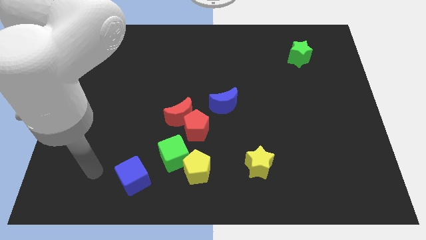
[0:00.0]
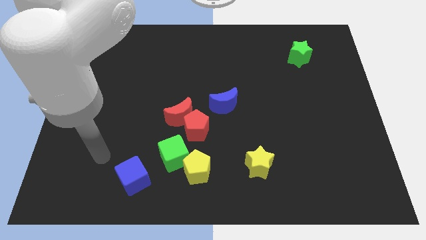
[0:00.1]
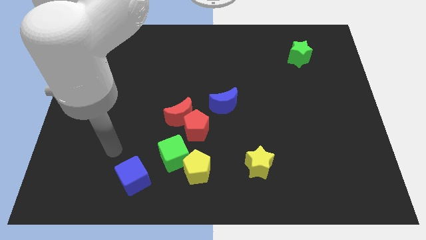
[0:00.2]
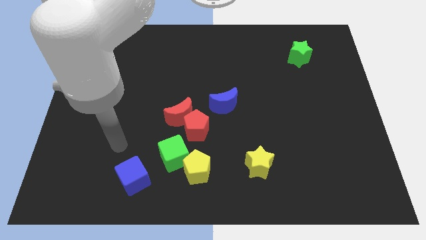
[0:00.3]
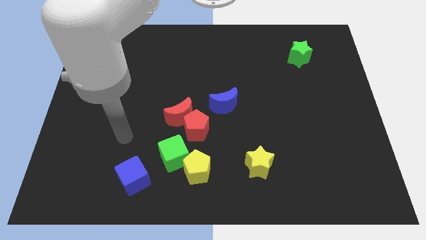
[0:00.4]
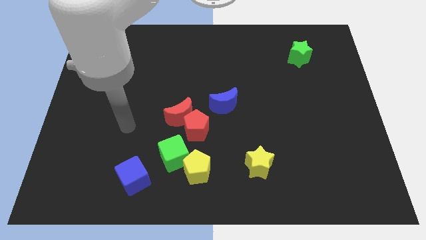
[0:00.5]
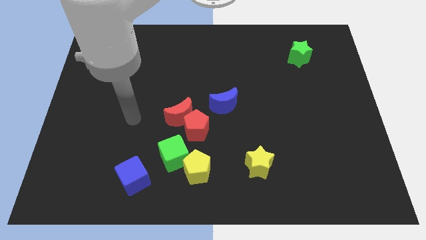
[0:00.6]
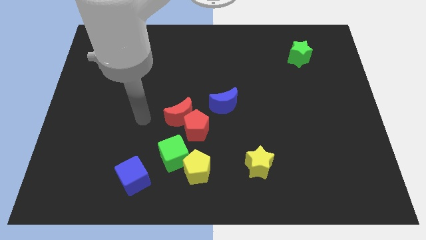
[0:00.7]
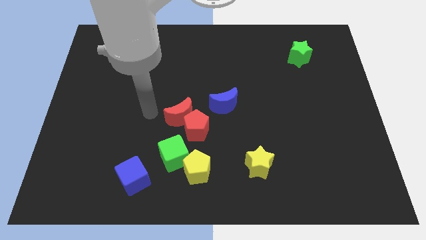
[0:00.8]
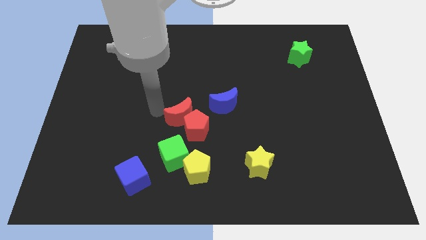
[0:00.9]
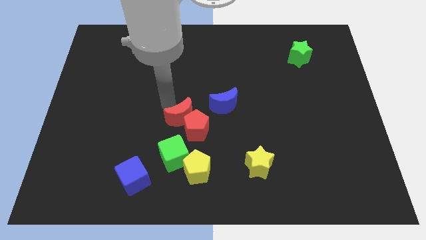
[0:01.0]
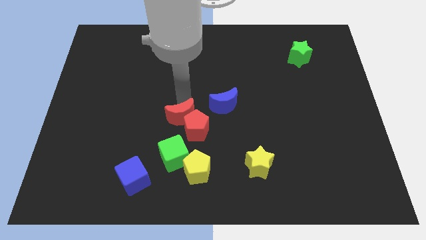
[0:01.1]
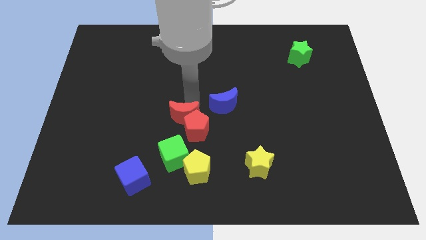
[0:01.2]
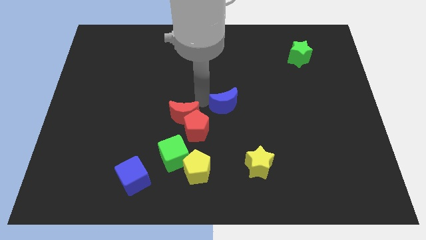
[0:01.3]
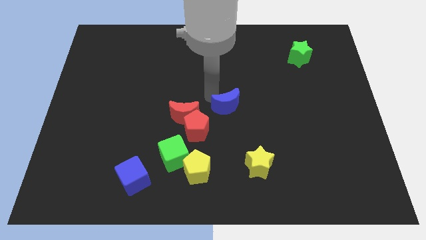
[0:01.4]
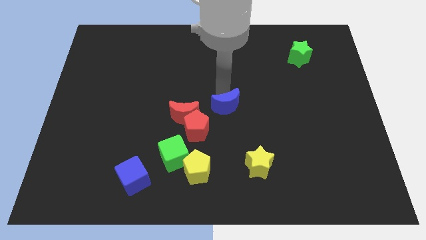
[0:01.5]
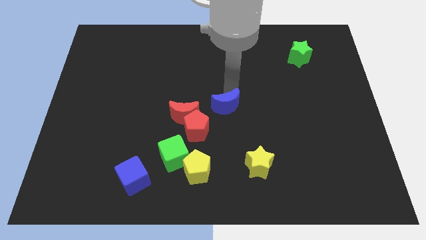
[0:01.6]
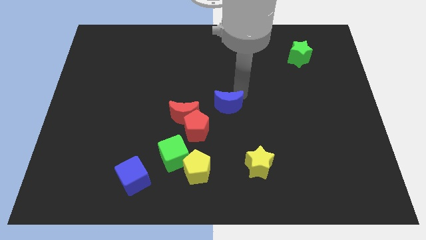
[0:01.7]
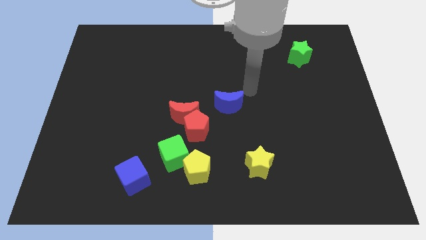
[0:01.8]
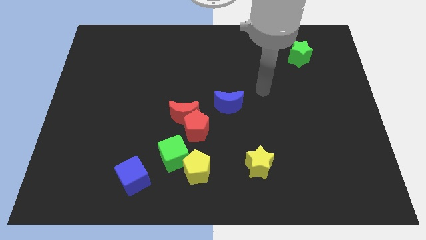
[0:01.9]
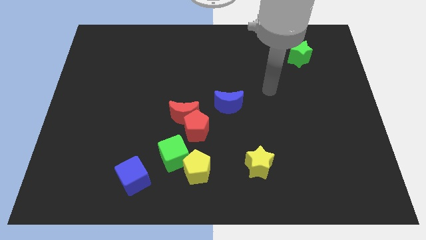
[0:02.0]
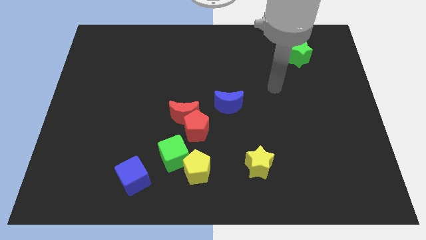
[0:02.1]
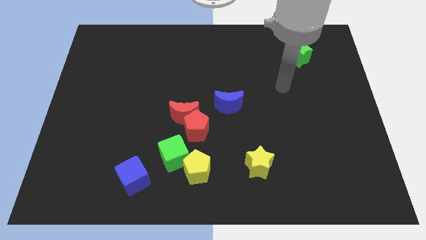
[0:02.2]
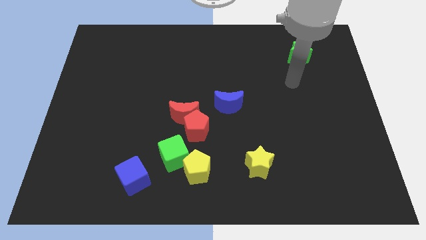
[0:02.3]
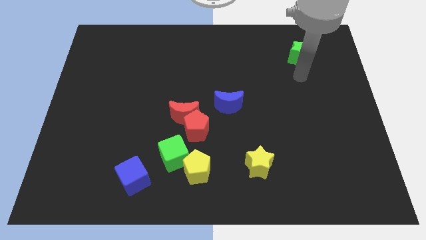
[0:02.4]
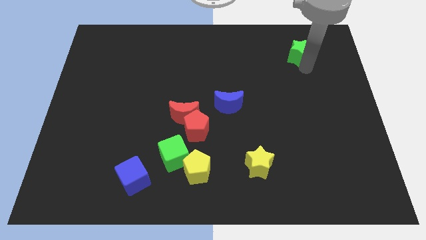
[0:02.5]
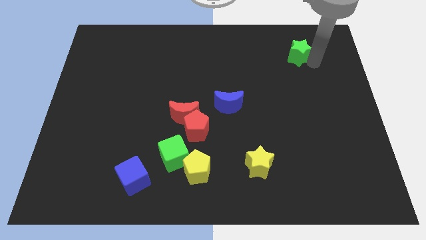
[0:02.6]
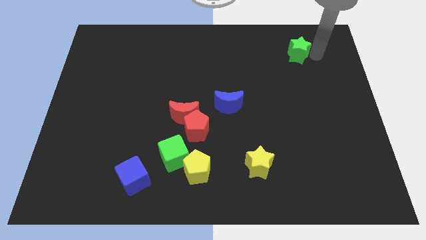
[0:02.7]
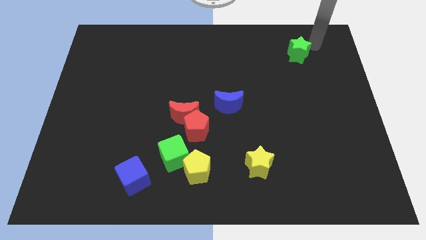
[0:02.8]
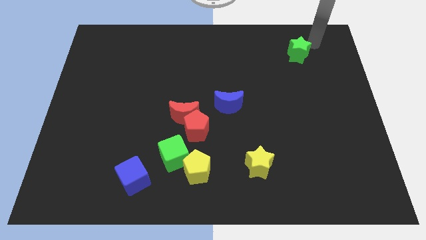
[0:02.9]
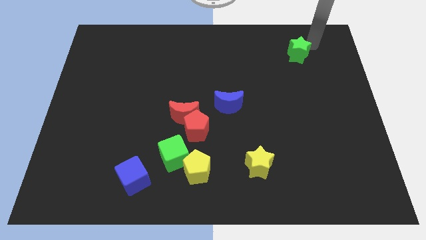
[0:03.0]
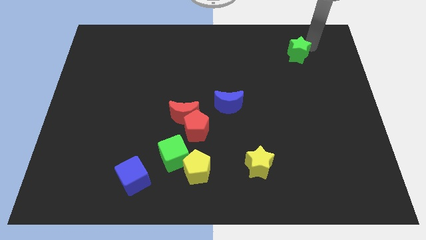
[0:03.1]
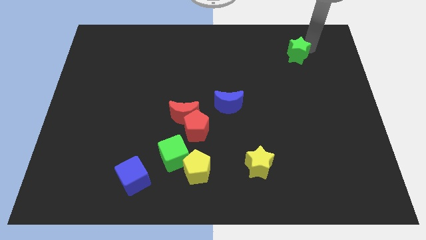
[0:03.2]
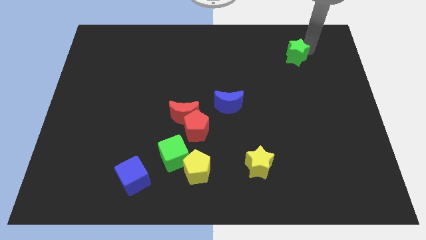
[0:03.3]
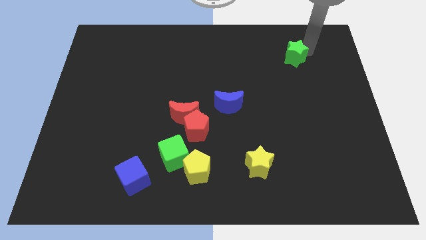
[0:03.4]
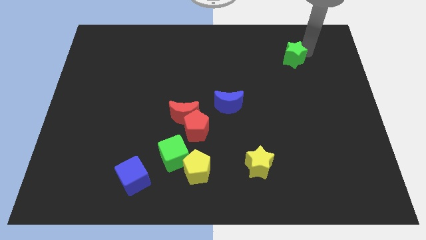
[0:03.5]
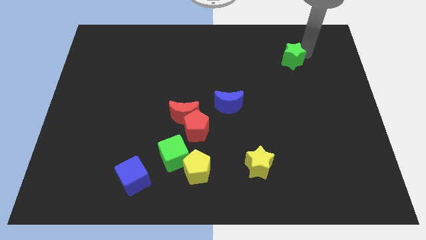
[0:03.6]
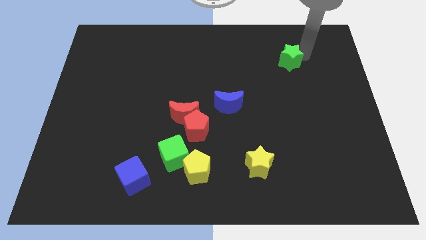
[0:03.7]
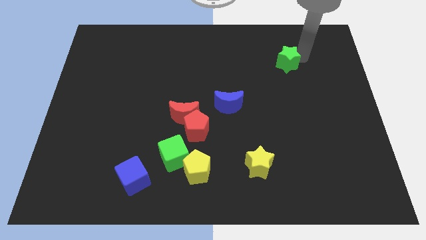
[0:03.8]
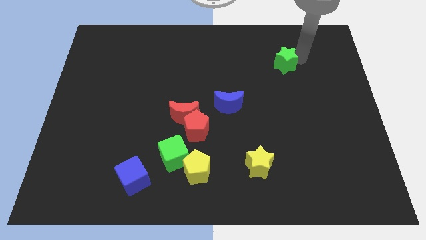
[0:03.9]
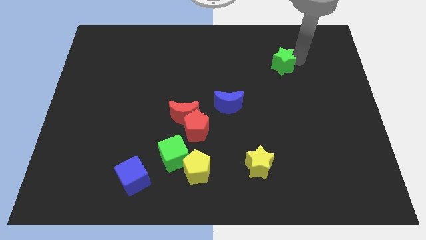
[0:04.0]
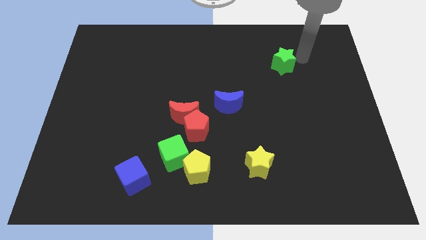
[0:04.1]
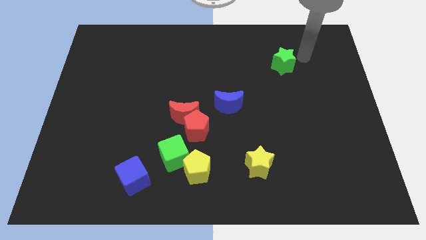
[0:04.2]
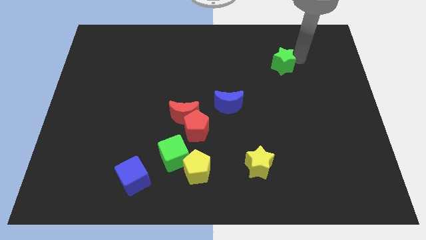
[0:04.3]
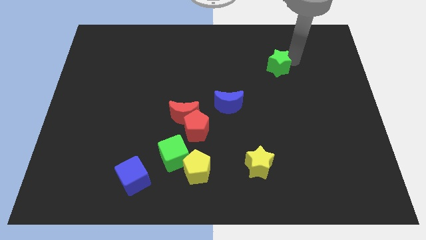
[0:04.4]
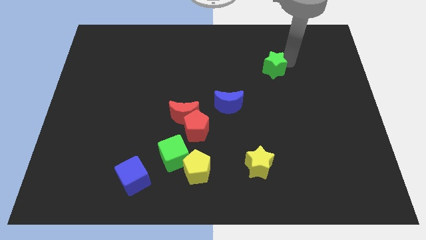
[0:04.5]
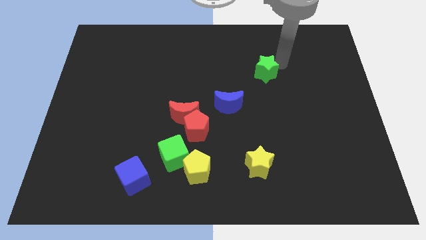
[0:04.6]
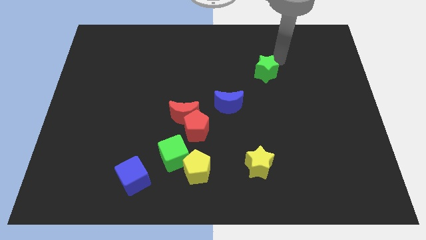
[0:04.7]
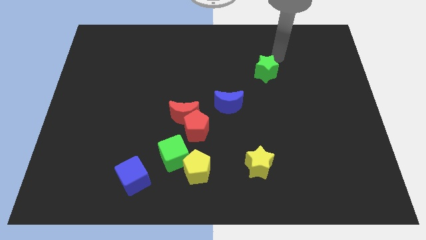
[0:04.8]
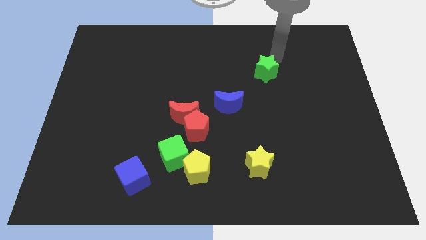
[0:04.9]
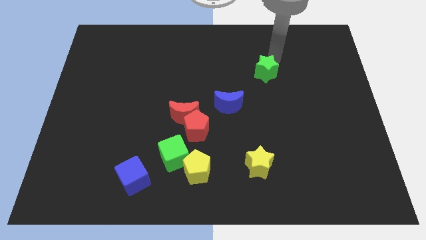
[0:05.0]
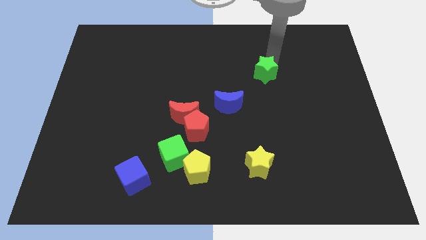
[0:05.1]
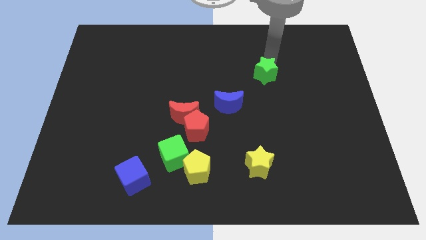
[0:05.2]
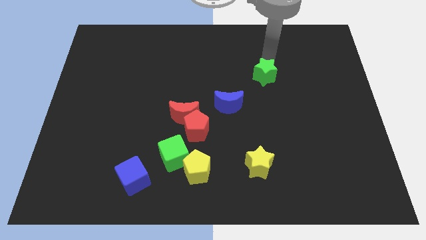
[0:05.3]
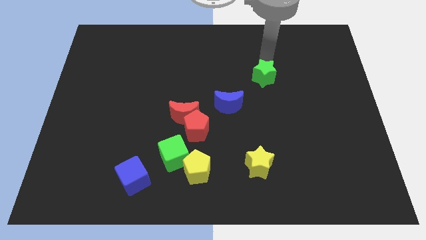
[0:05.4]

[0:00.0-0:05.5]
put the green star diagonally up and to the right of the blue moon

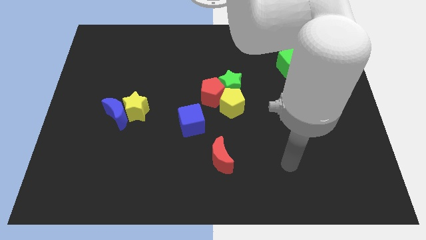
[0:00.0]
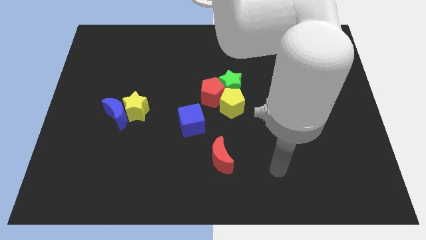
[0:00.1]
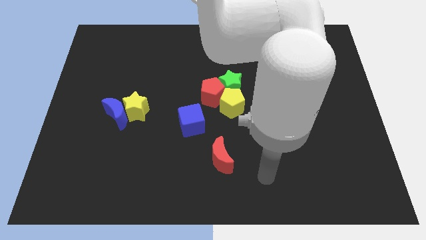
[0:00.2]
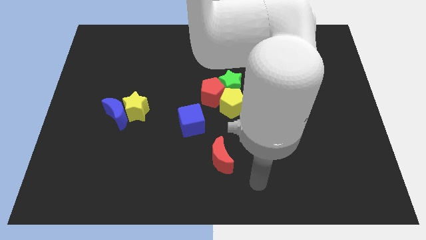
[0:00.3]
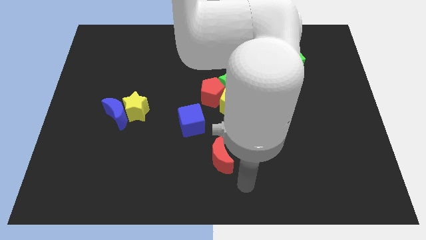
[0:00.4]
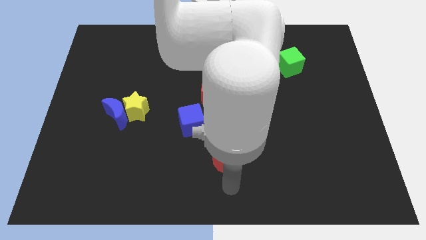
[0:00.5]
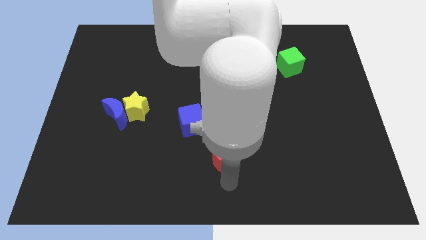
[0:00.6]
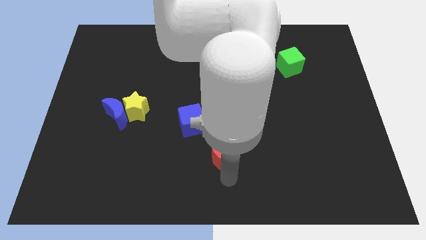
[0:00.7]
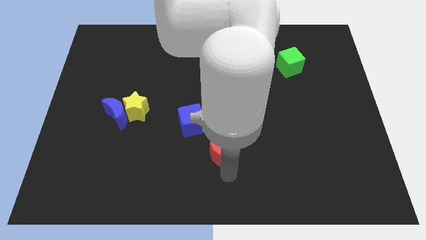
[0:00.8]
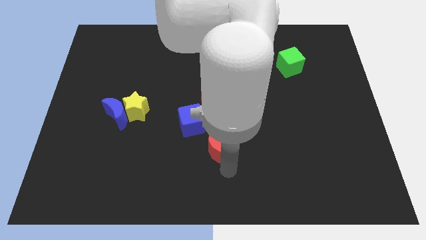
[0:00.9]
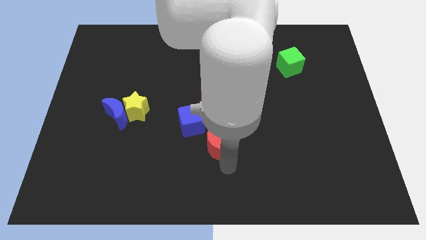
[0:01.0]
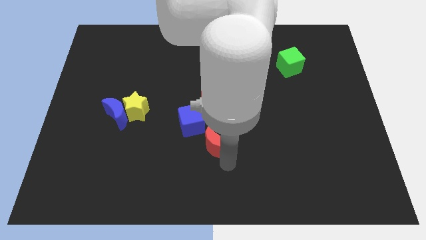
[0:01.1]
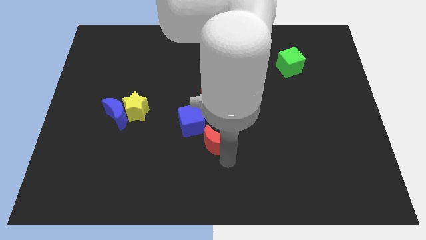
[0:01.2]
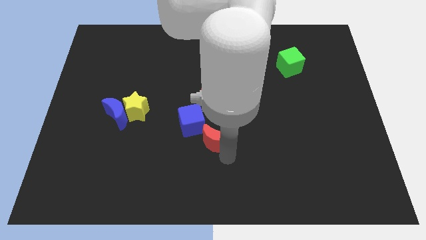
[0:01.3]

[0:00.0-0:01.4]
put the red moon to the bottom left side of the yellow pentagon
